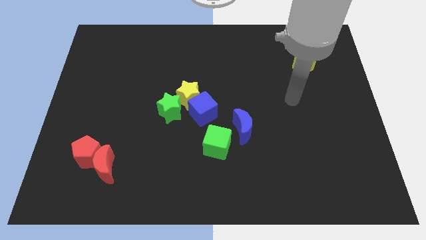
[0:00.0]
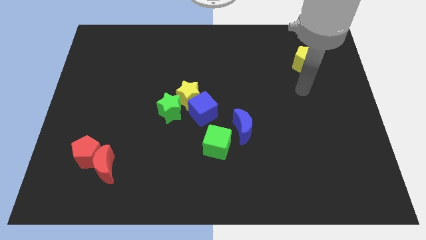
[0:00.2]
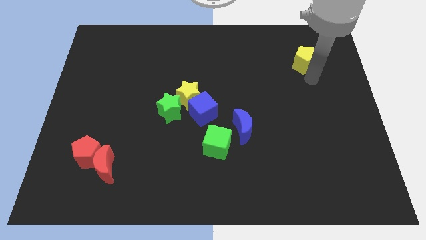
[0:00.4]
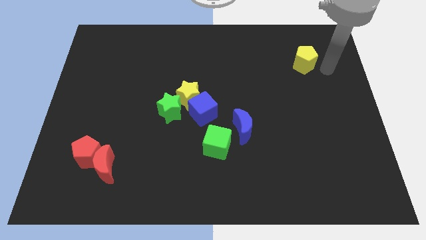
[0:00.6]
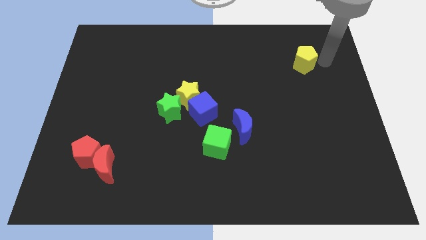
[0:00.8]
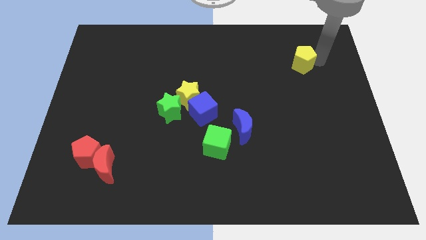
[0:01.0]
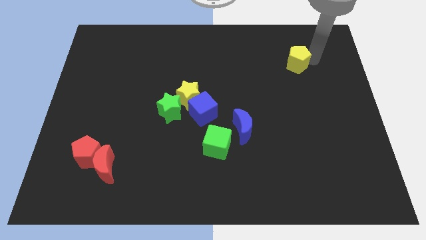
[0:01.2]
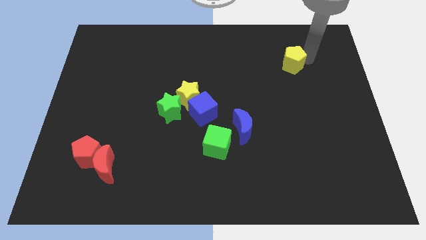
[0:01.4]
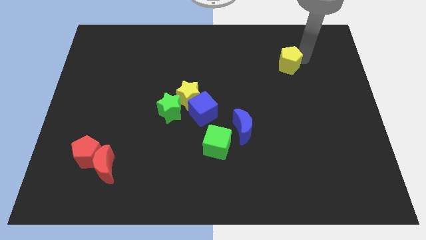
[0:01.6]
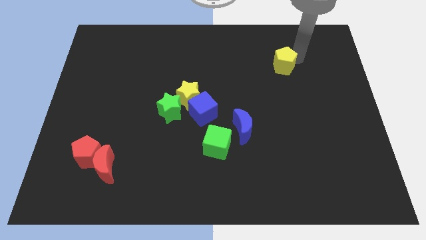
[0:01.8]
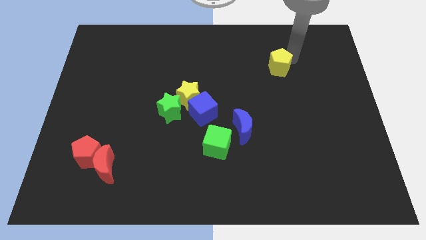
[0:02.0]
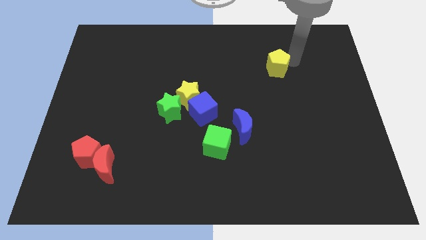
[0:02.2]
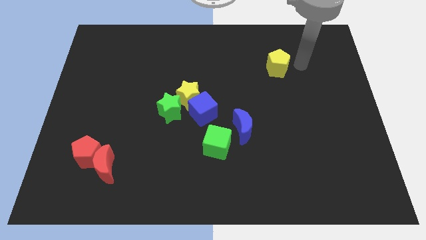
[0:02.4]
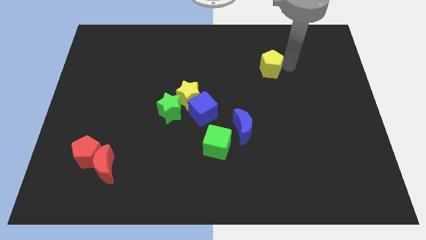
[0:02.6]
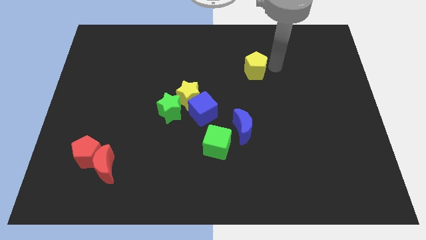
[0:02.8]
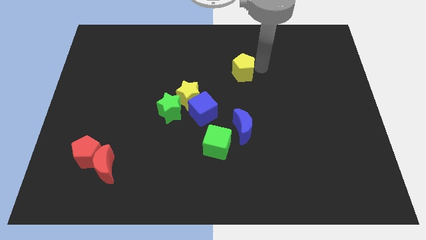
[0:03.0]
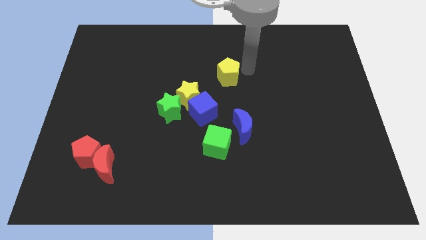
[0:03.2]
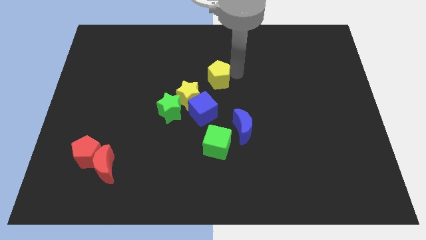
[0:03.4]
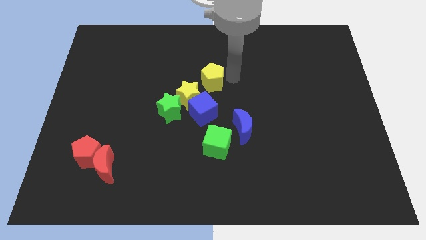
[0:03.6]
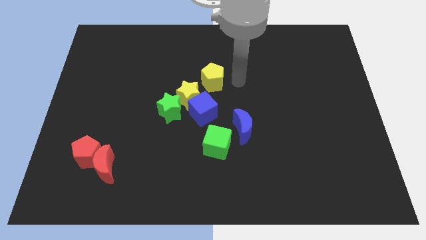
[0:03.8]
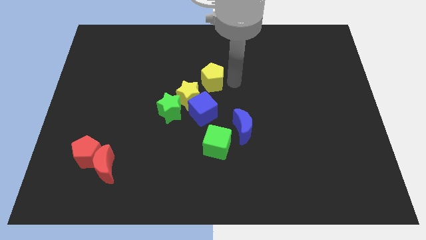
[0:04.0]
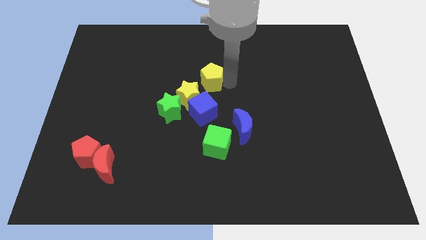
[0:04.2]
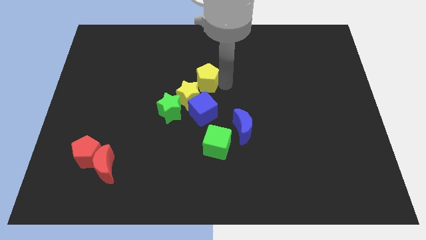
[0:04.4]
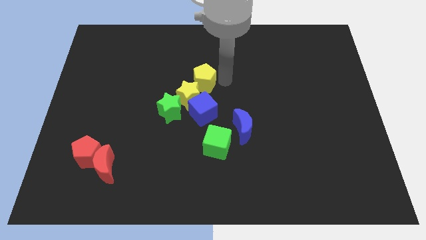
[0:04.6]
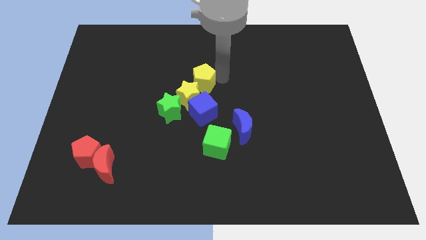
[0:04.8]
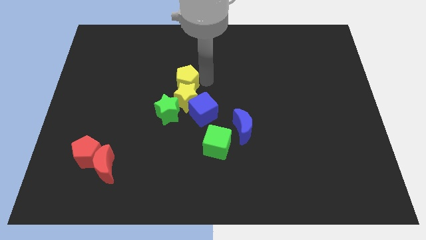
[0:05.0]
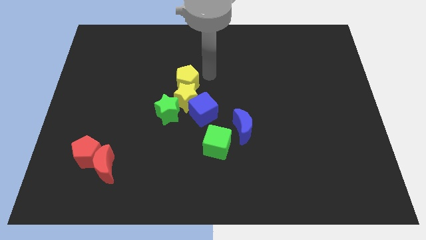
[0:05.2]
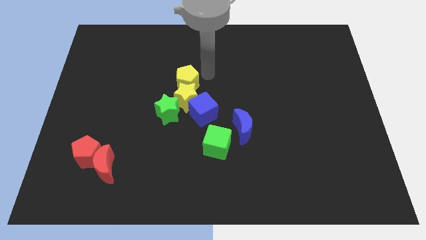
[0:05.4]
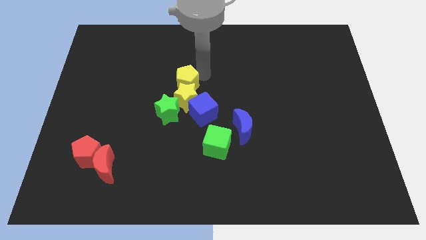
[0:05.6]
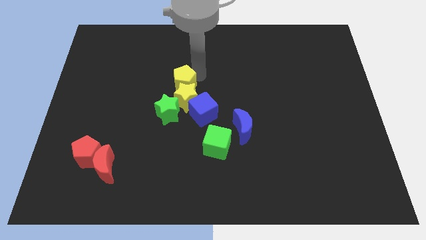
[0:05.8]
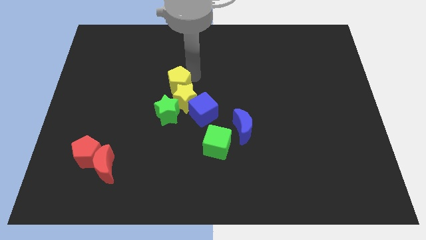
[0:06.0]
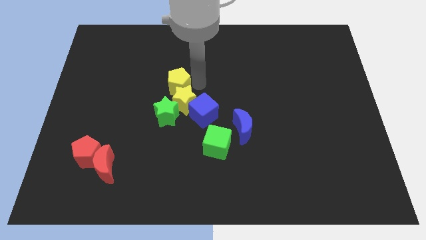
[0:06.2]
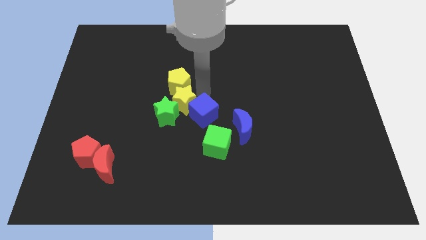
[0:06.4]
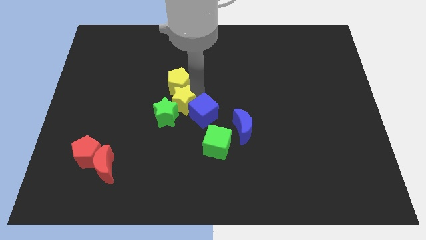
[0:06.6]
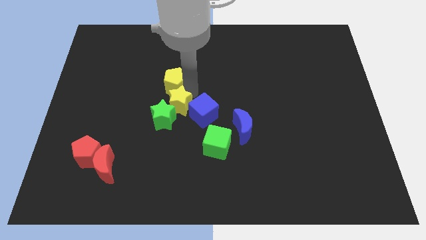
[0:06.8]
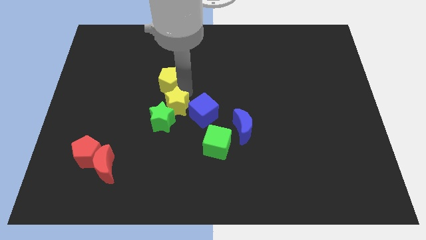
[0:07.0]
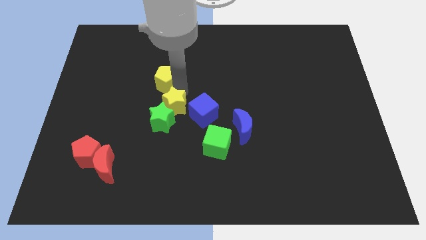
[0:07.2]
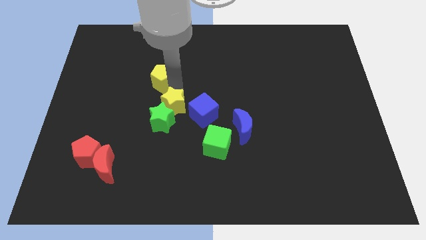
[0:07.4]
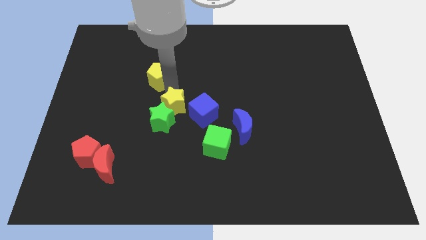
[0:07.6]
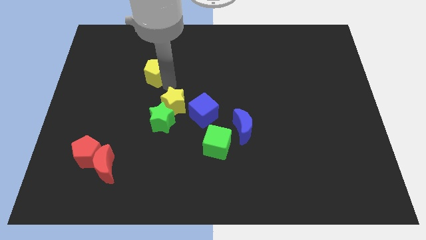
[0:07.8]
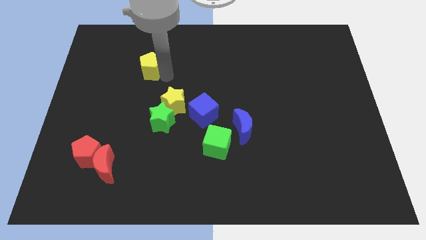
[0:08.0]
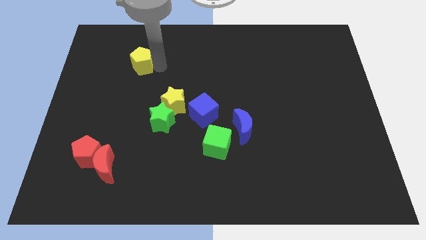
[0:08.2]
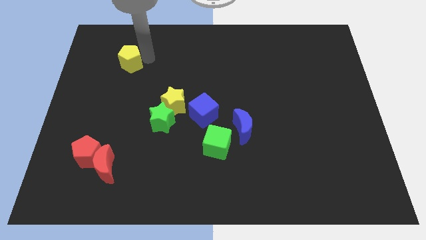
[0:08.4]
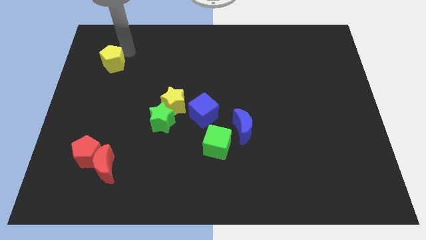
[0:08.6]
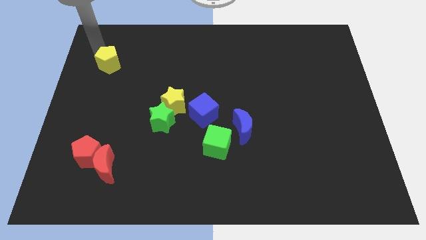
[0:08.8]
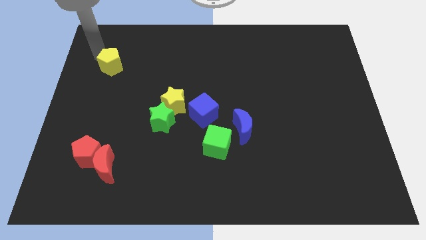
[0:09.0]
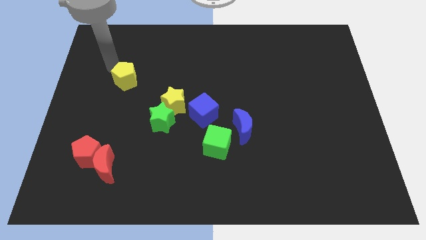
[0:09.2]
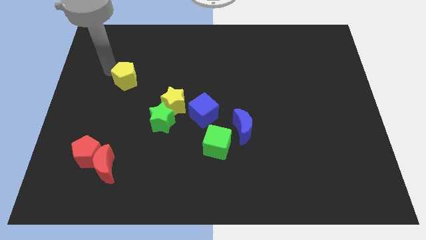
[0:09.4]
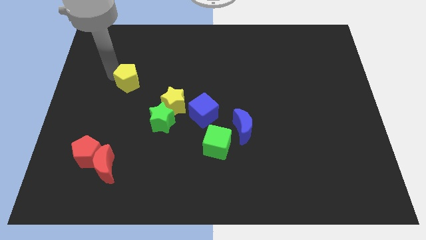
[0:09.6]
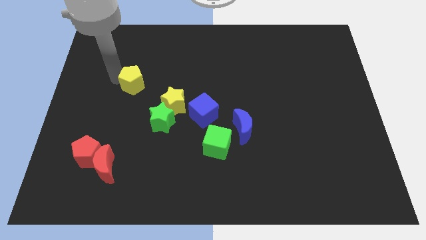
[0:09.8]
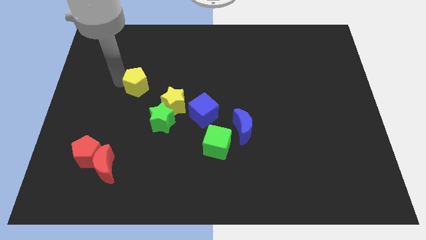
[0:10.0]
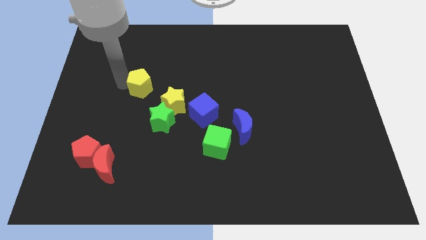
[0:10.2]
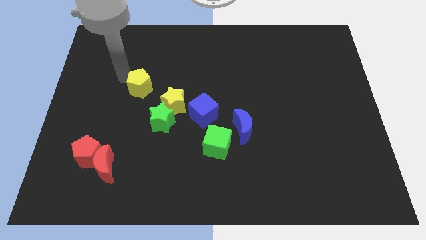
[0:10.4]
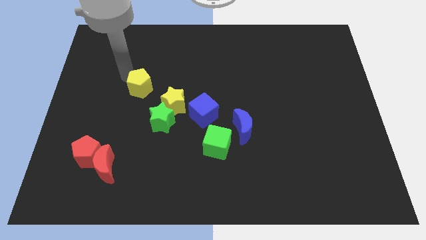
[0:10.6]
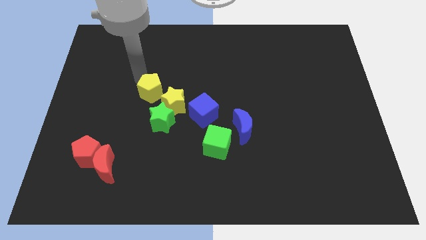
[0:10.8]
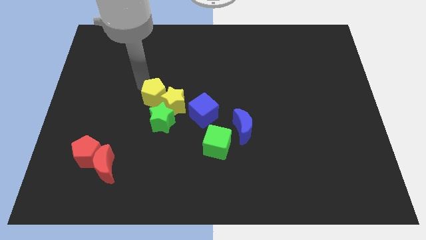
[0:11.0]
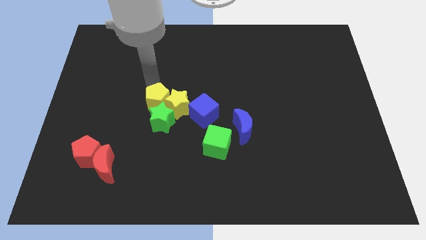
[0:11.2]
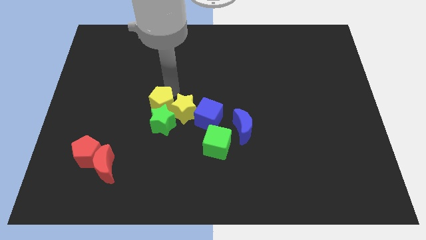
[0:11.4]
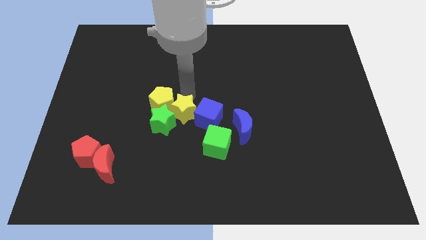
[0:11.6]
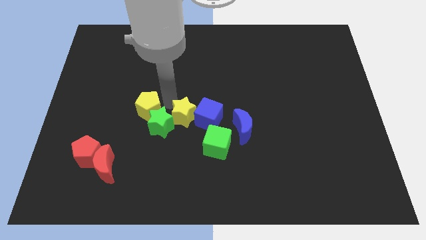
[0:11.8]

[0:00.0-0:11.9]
move the yellow pentagon just left of the green star

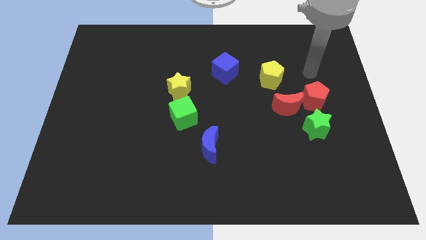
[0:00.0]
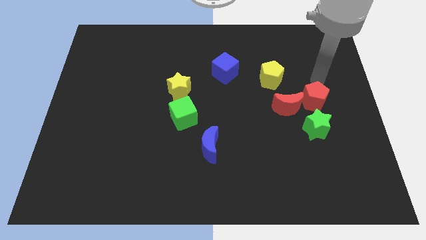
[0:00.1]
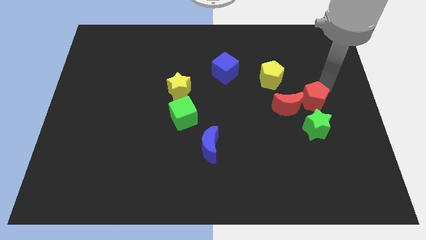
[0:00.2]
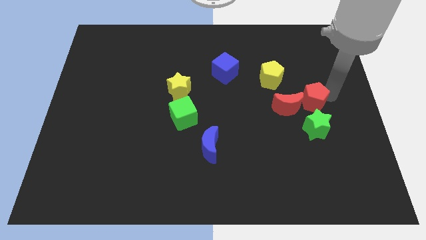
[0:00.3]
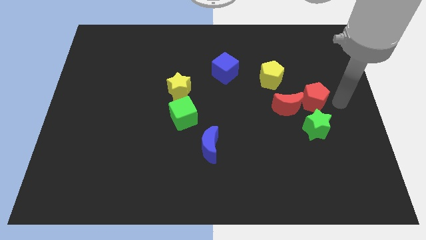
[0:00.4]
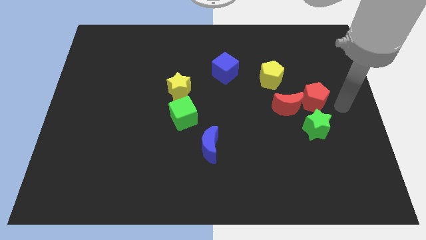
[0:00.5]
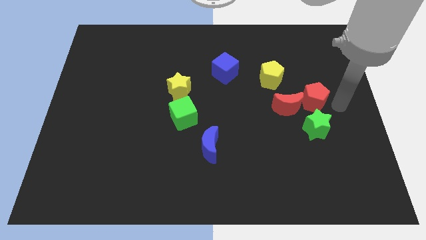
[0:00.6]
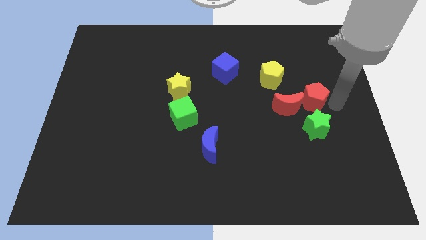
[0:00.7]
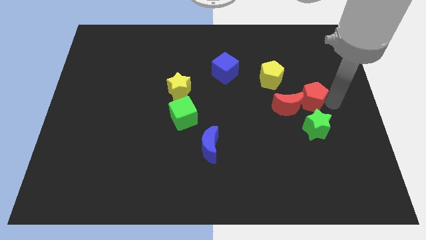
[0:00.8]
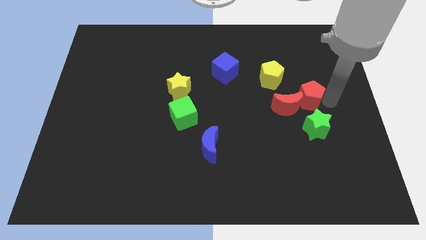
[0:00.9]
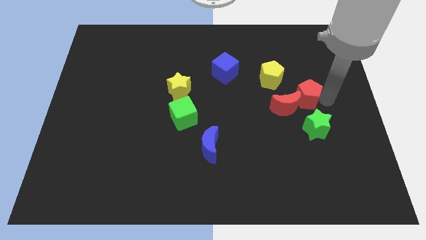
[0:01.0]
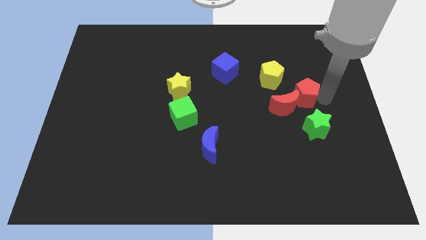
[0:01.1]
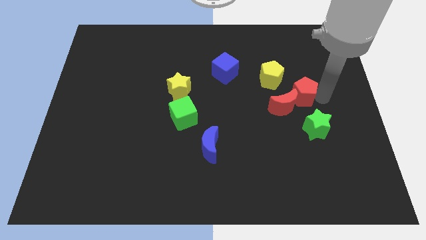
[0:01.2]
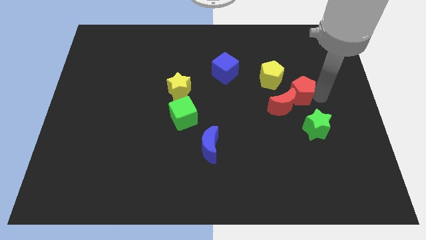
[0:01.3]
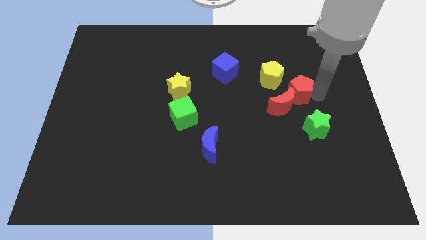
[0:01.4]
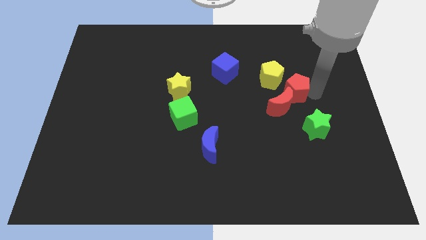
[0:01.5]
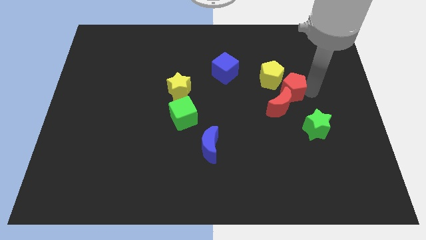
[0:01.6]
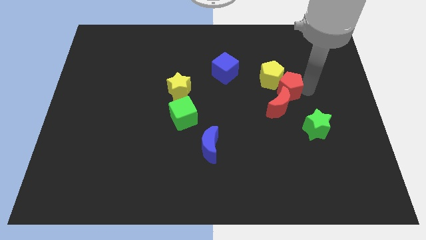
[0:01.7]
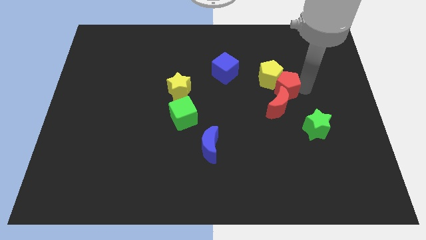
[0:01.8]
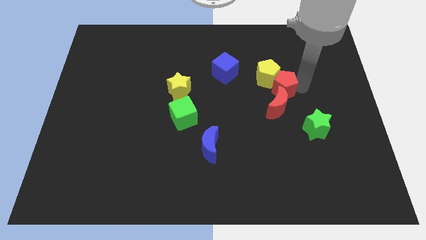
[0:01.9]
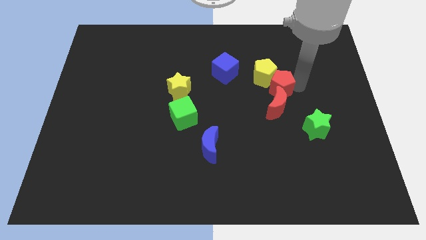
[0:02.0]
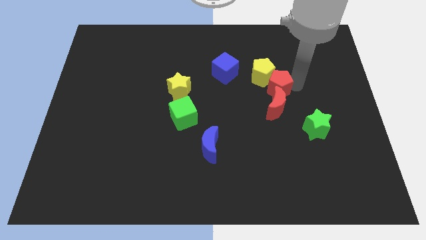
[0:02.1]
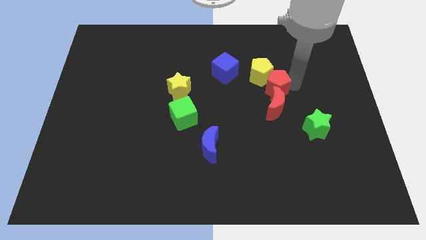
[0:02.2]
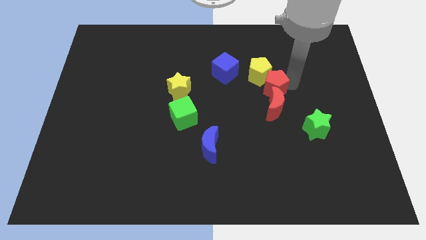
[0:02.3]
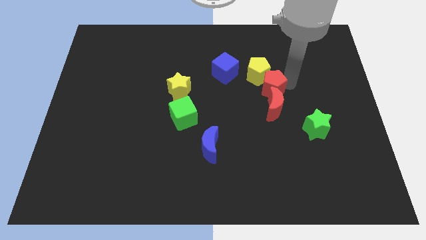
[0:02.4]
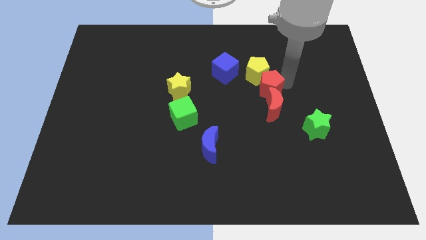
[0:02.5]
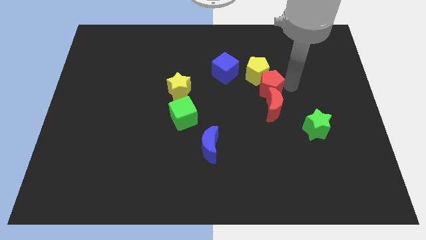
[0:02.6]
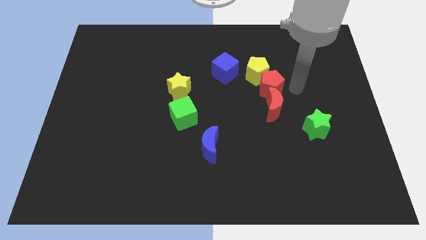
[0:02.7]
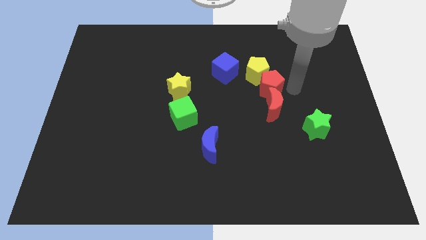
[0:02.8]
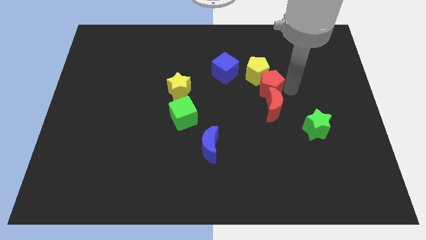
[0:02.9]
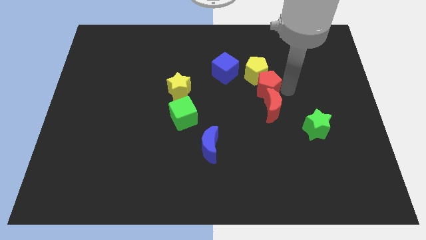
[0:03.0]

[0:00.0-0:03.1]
slide the red pentagon to the bottom right of the blue cube
